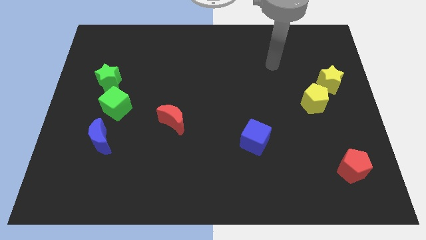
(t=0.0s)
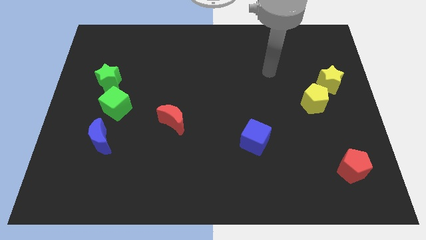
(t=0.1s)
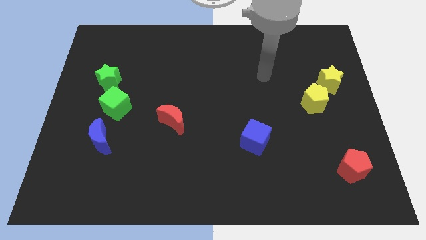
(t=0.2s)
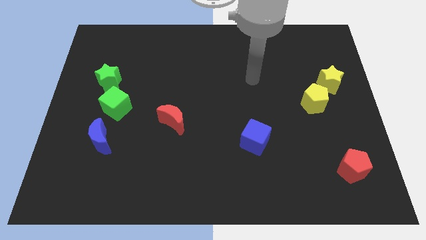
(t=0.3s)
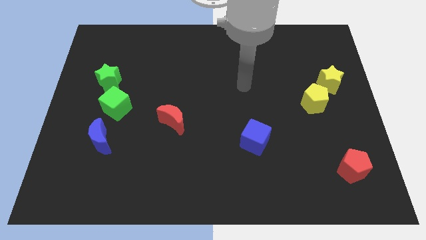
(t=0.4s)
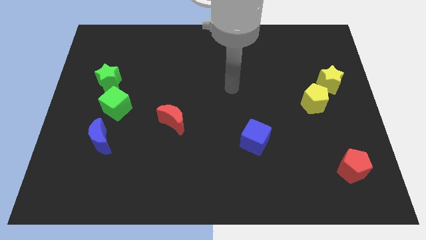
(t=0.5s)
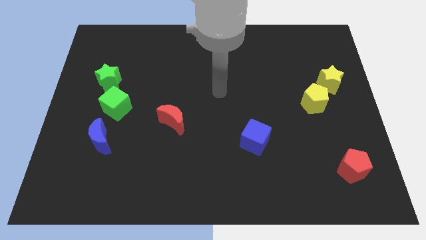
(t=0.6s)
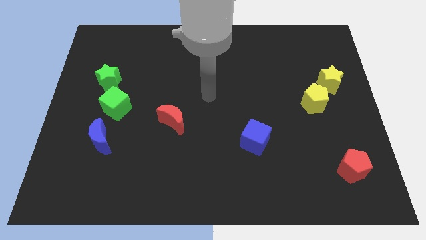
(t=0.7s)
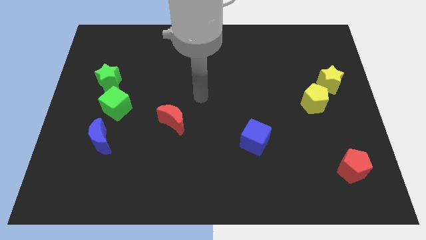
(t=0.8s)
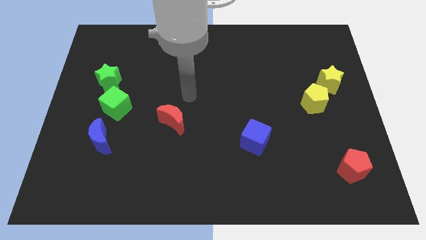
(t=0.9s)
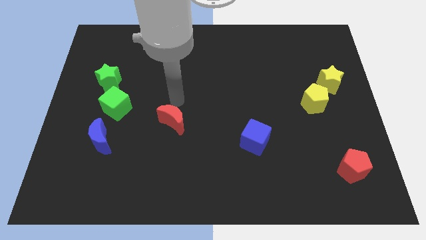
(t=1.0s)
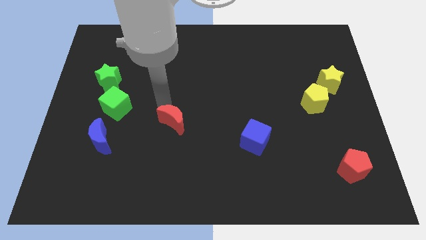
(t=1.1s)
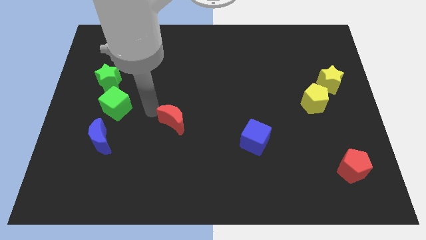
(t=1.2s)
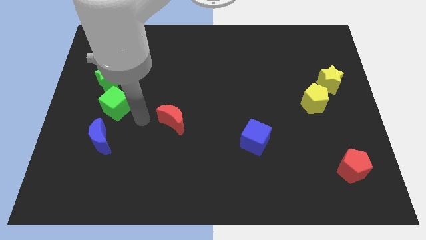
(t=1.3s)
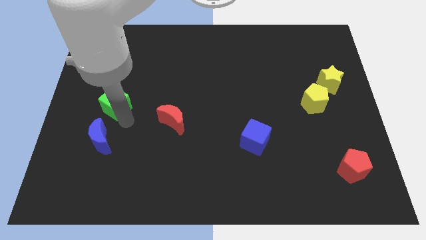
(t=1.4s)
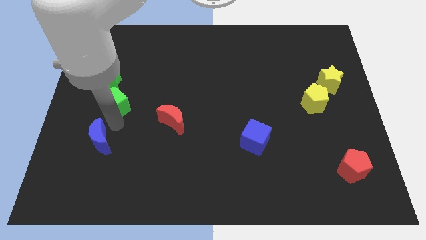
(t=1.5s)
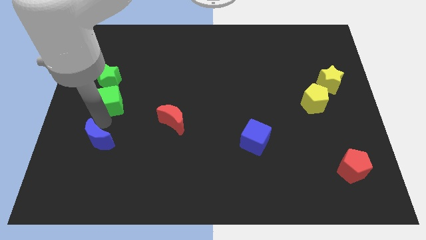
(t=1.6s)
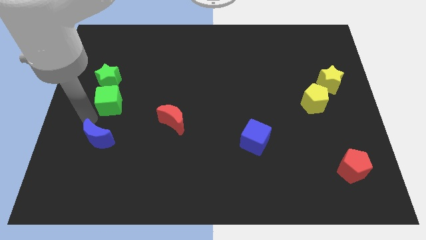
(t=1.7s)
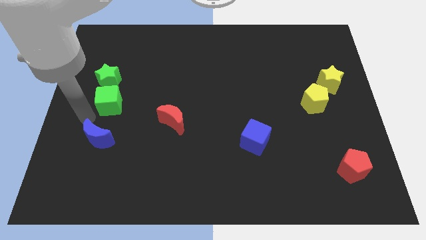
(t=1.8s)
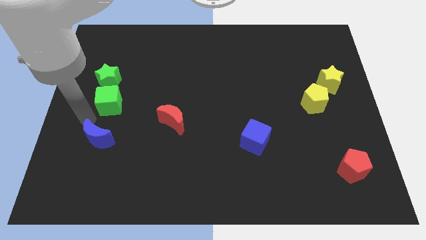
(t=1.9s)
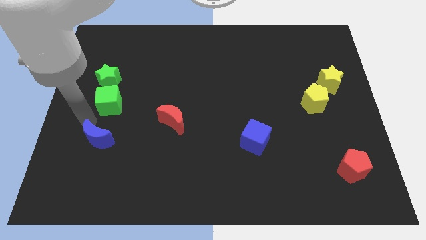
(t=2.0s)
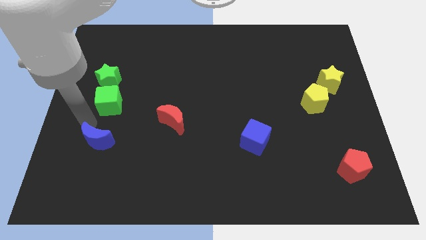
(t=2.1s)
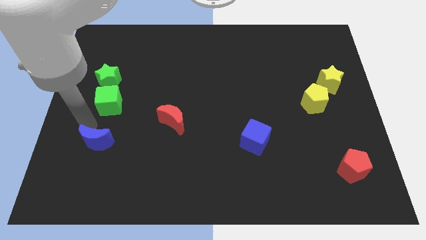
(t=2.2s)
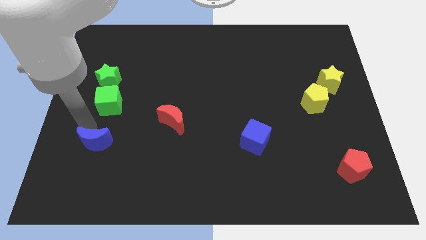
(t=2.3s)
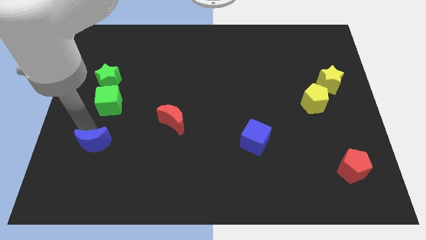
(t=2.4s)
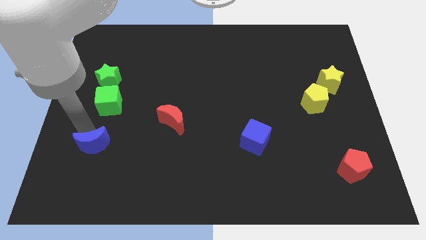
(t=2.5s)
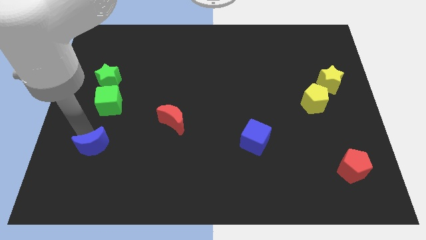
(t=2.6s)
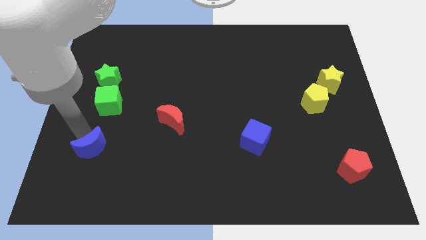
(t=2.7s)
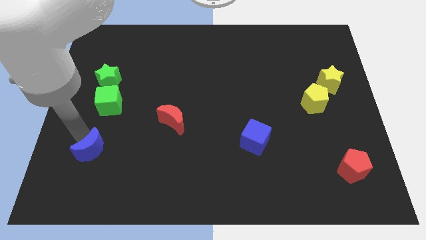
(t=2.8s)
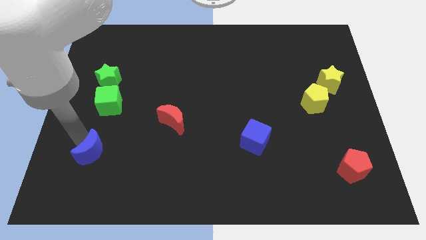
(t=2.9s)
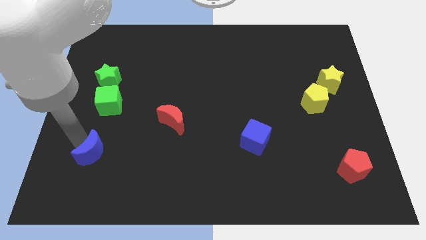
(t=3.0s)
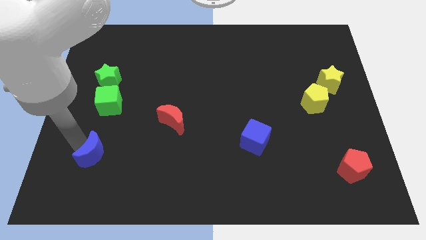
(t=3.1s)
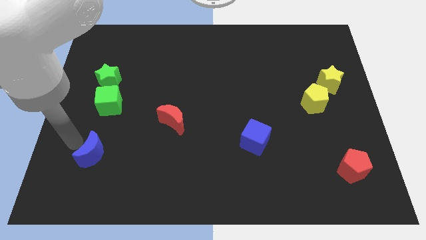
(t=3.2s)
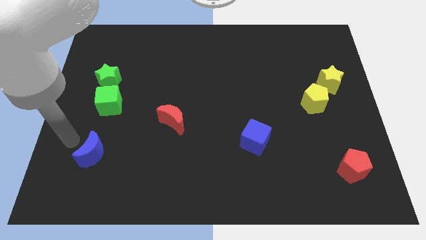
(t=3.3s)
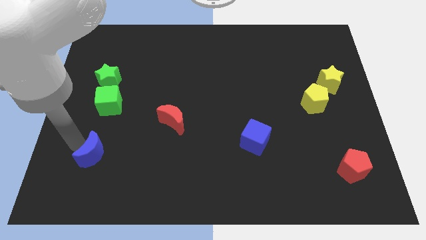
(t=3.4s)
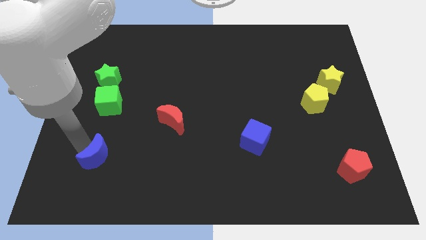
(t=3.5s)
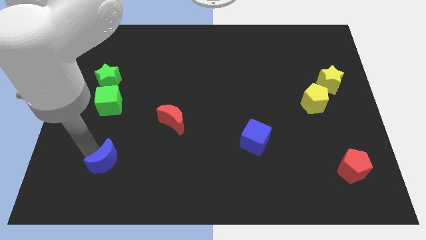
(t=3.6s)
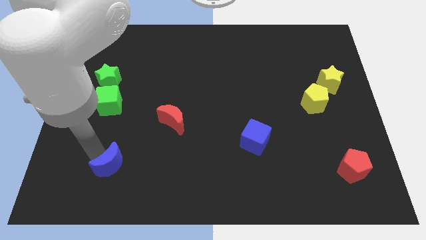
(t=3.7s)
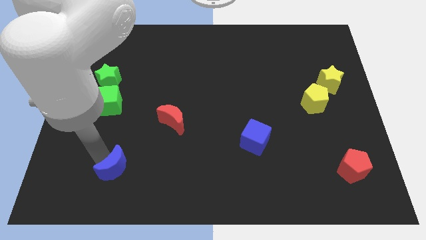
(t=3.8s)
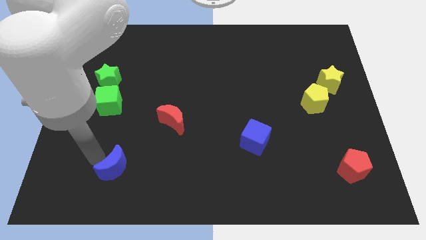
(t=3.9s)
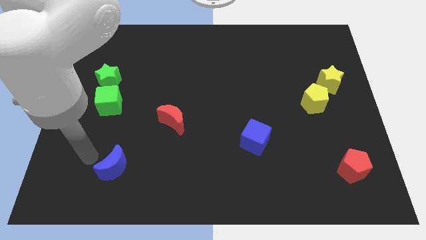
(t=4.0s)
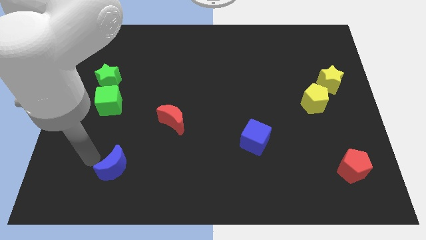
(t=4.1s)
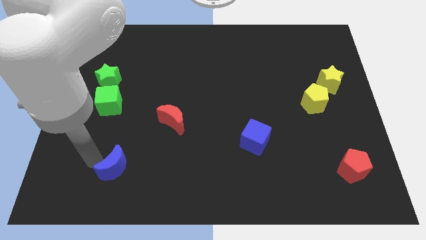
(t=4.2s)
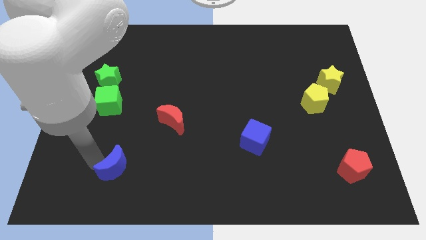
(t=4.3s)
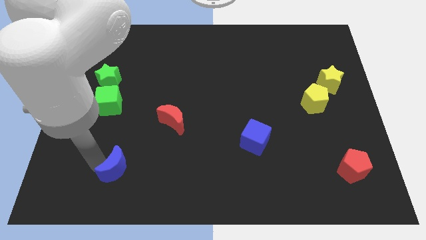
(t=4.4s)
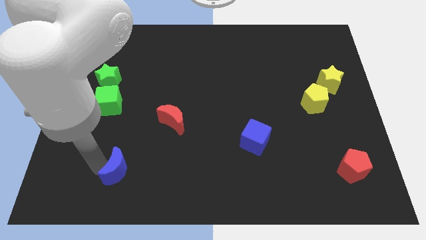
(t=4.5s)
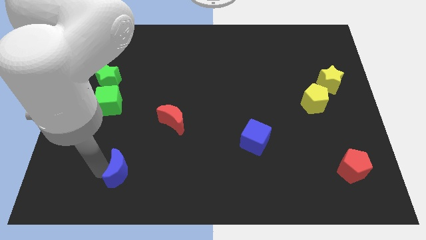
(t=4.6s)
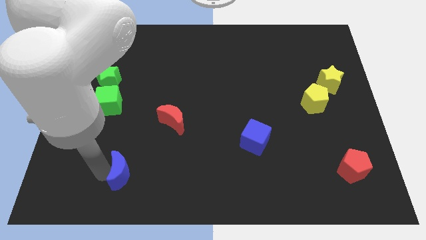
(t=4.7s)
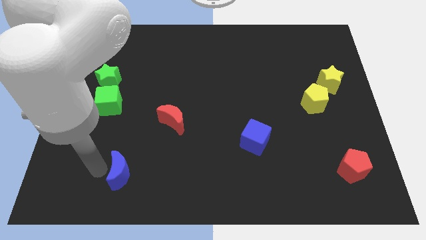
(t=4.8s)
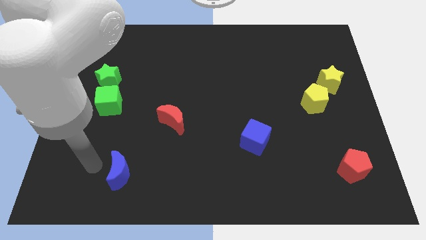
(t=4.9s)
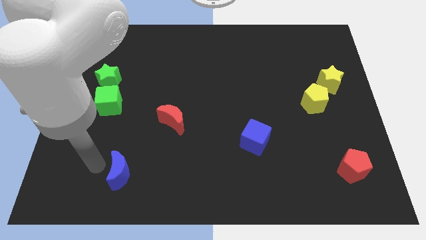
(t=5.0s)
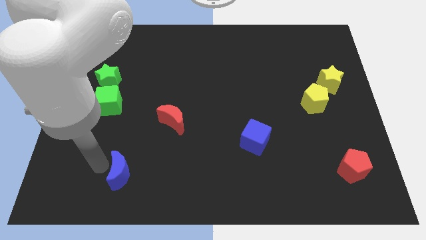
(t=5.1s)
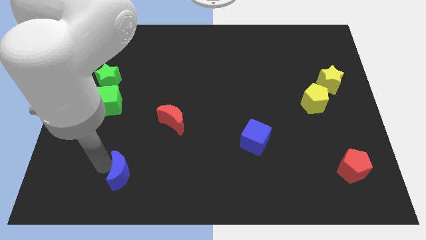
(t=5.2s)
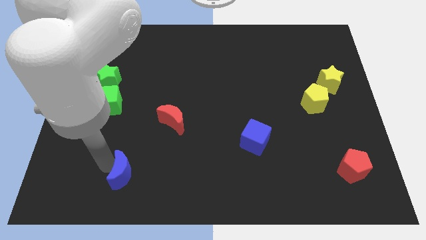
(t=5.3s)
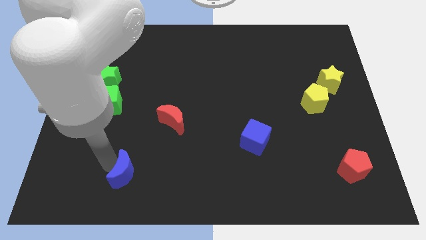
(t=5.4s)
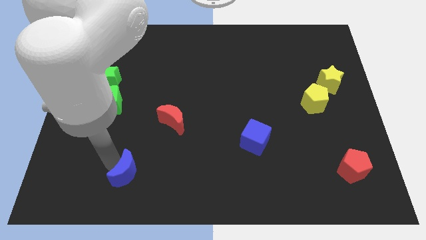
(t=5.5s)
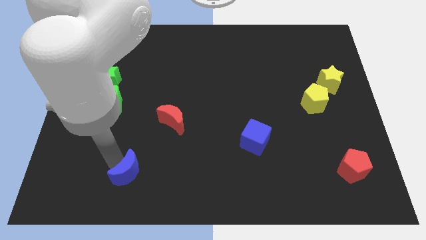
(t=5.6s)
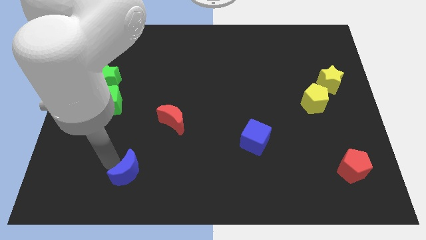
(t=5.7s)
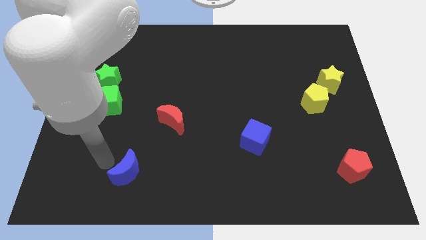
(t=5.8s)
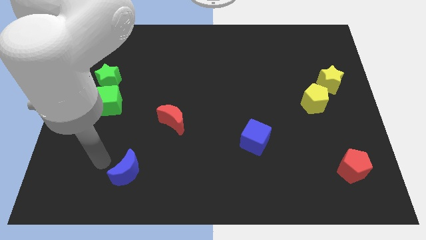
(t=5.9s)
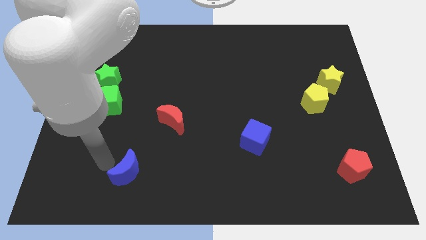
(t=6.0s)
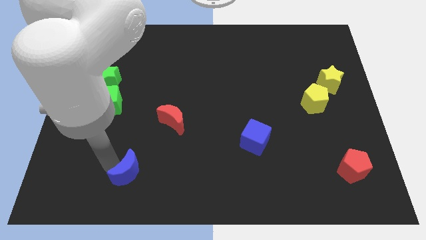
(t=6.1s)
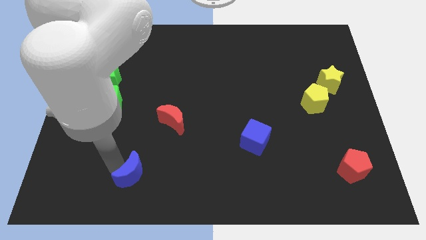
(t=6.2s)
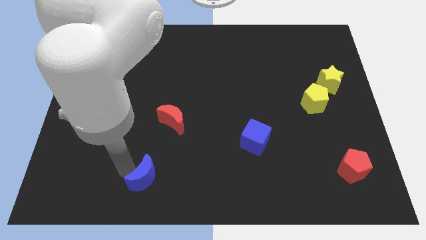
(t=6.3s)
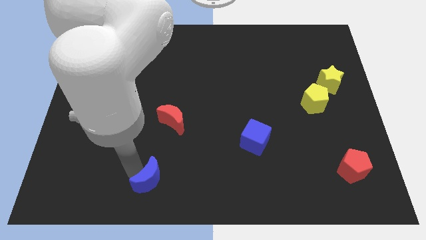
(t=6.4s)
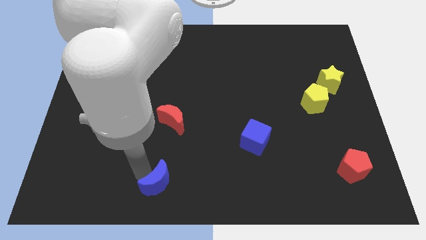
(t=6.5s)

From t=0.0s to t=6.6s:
push the blue moon to the bottom side
